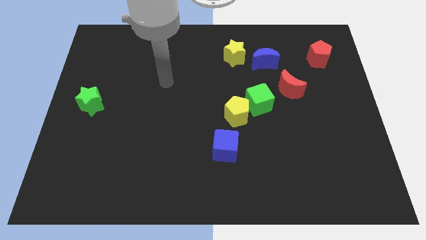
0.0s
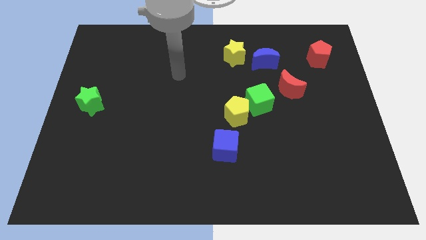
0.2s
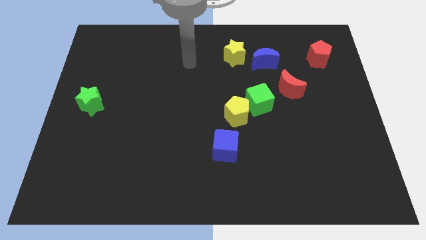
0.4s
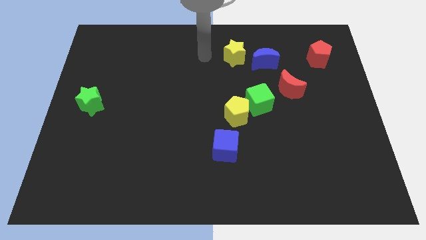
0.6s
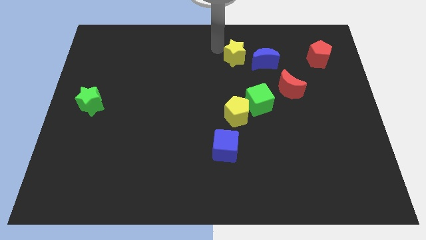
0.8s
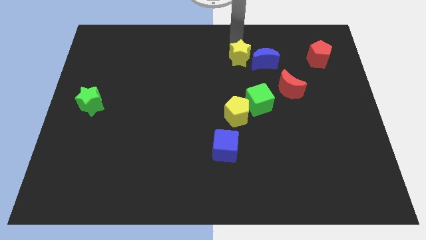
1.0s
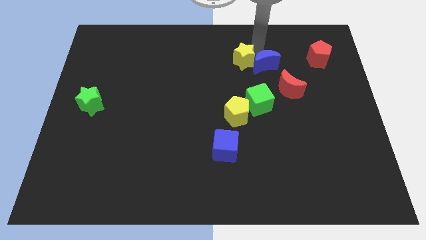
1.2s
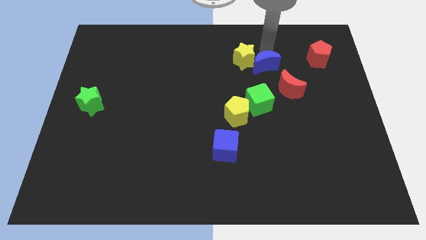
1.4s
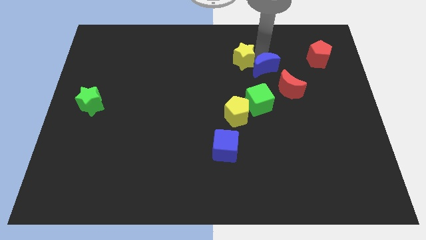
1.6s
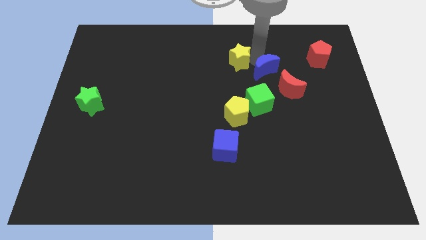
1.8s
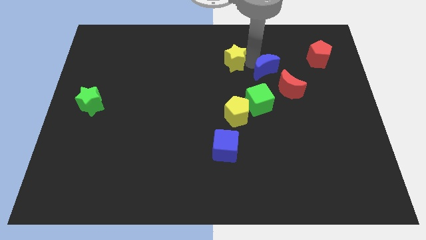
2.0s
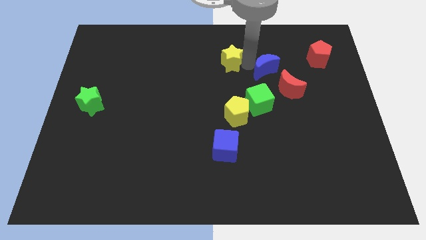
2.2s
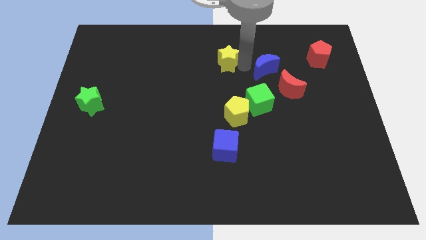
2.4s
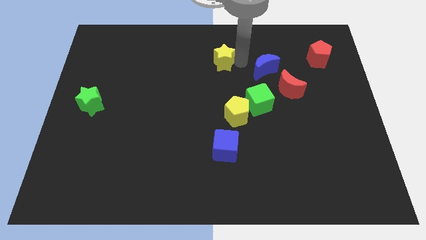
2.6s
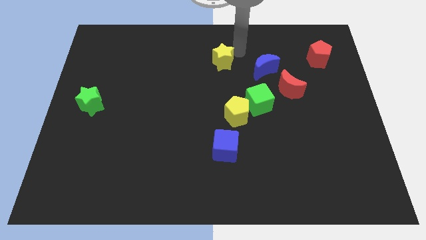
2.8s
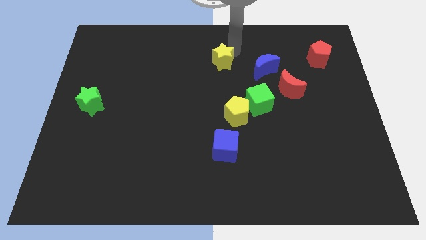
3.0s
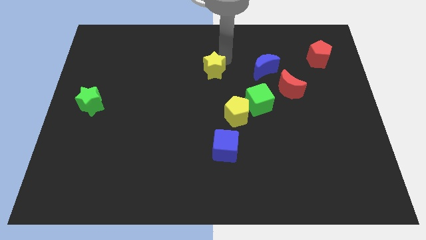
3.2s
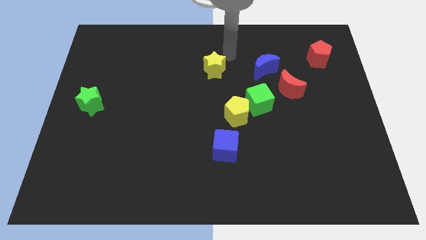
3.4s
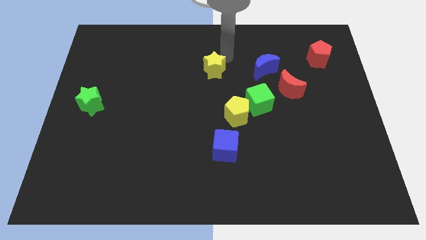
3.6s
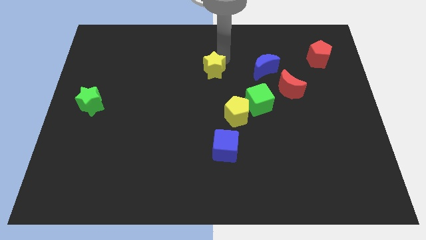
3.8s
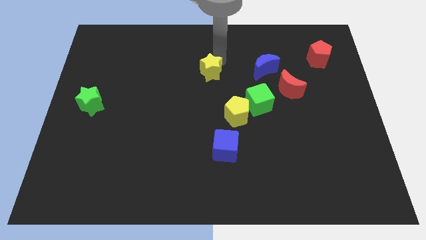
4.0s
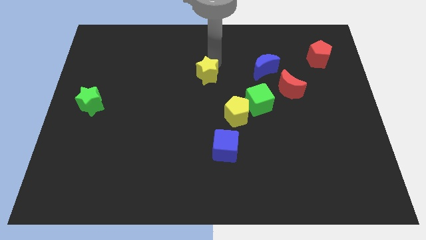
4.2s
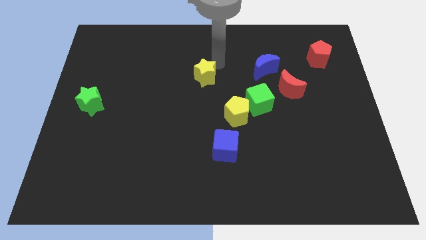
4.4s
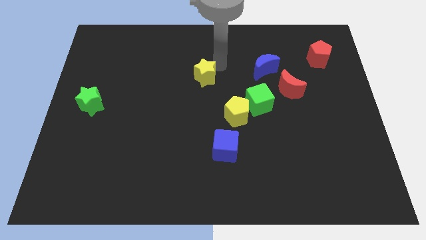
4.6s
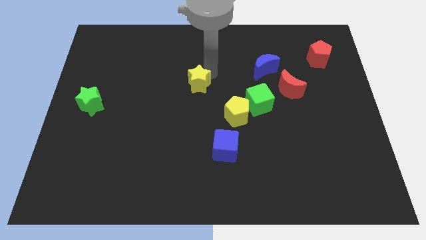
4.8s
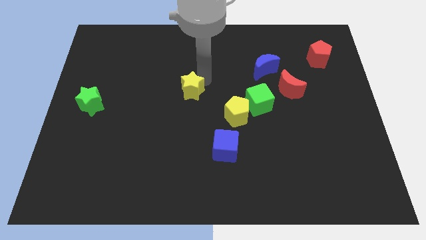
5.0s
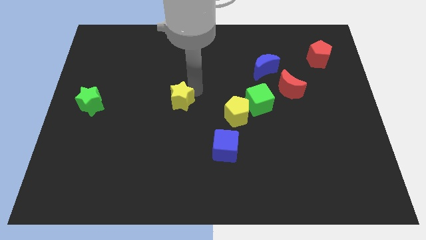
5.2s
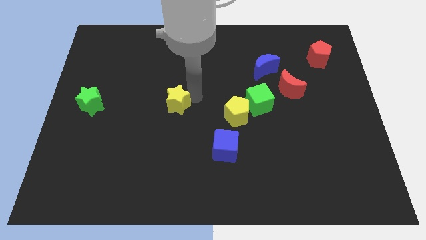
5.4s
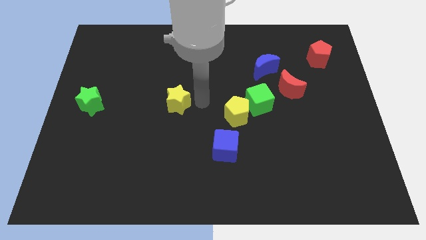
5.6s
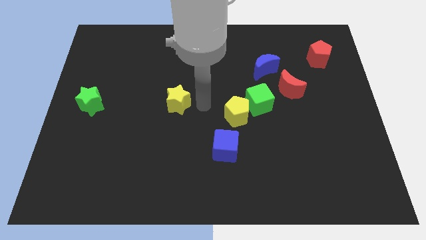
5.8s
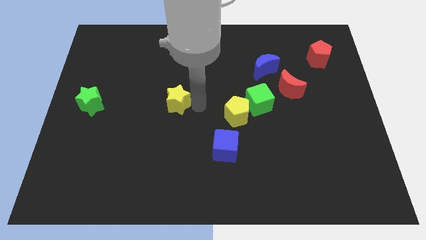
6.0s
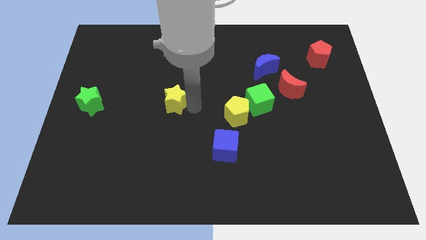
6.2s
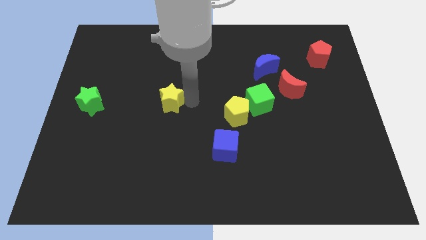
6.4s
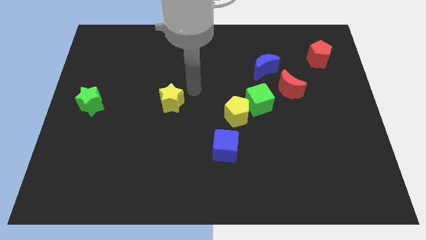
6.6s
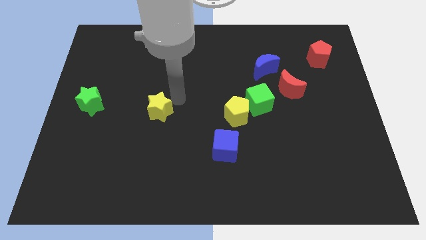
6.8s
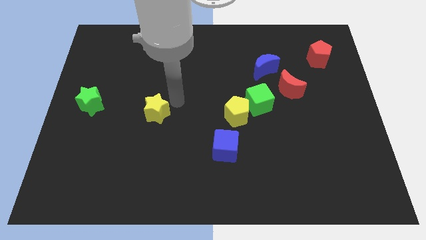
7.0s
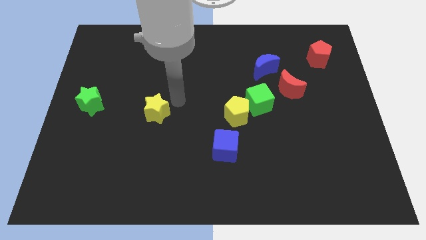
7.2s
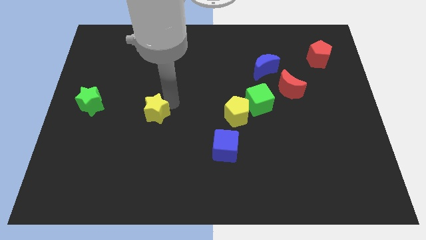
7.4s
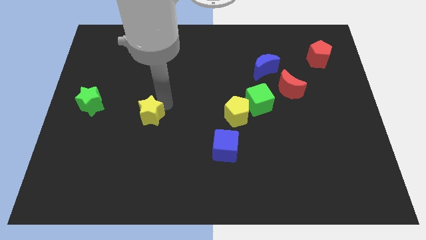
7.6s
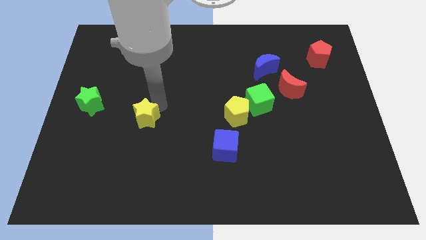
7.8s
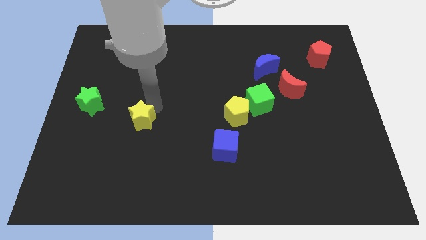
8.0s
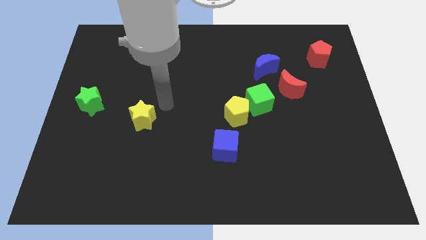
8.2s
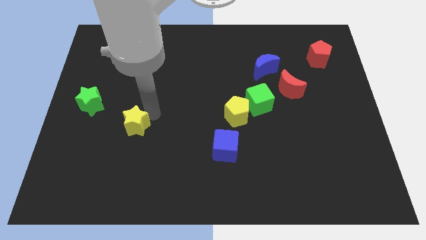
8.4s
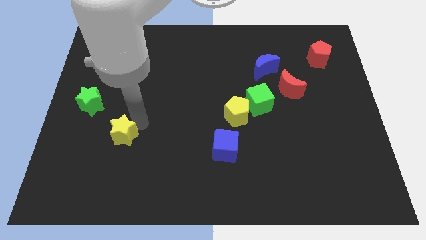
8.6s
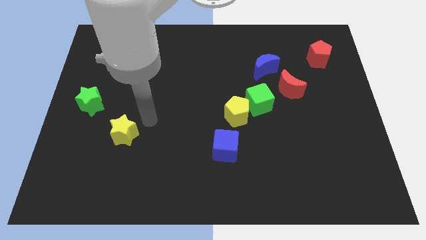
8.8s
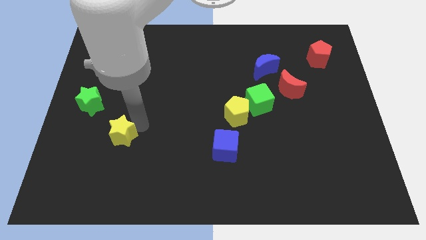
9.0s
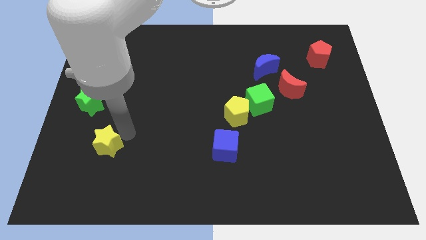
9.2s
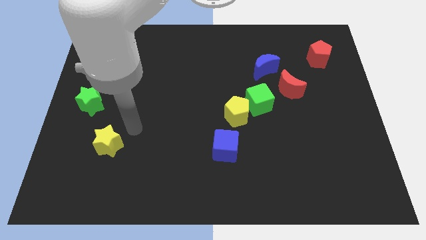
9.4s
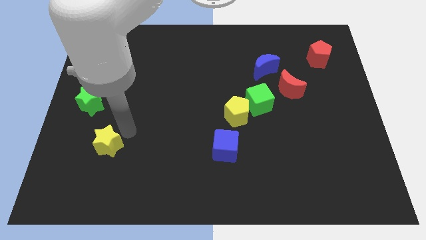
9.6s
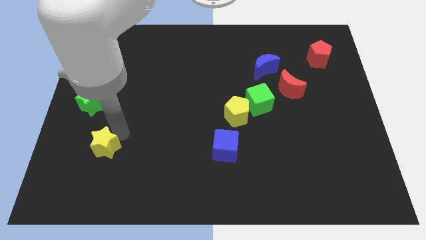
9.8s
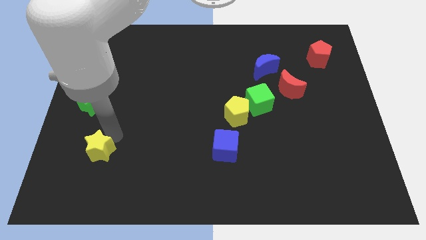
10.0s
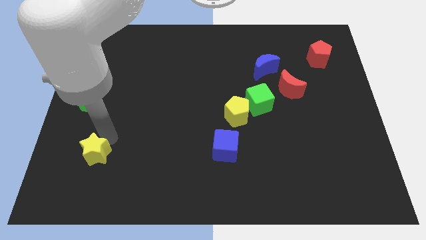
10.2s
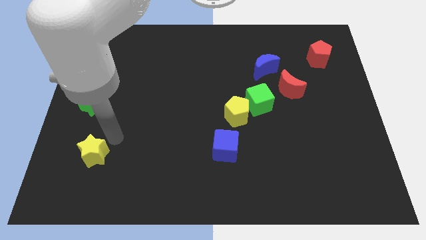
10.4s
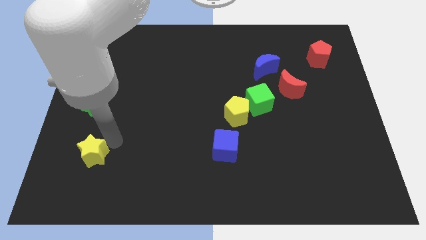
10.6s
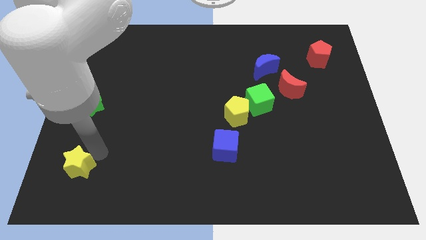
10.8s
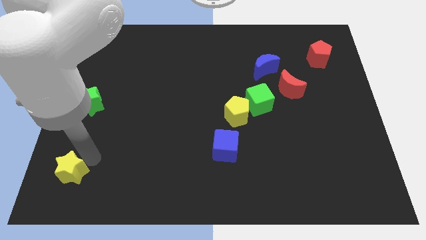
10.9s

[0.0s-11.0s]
put the yellow star to the bottom left of the board
